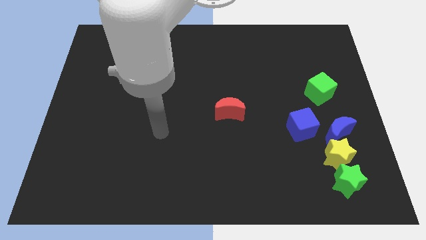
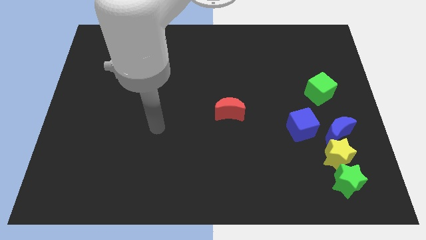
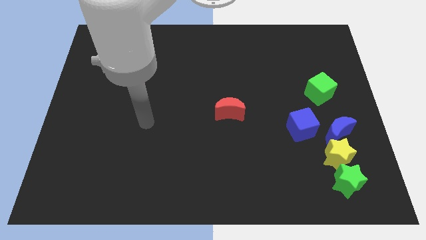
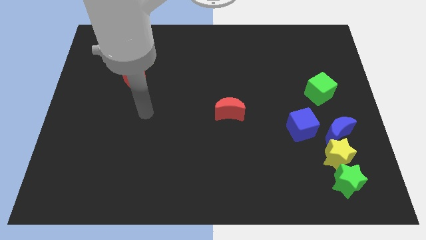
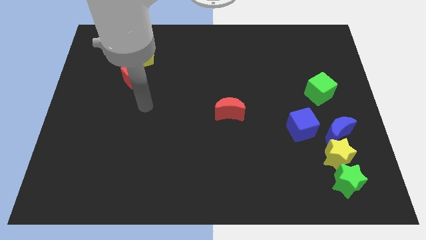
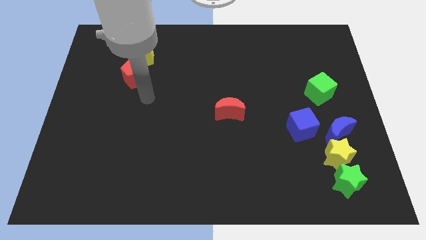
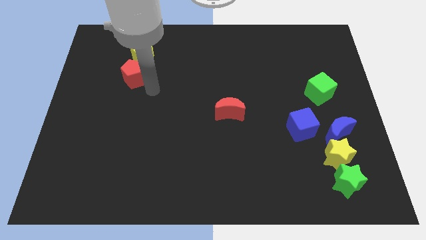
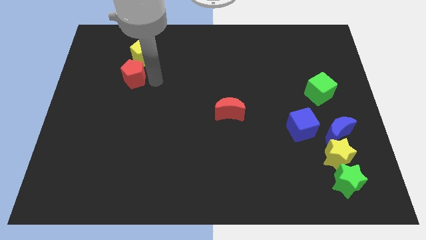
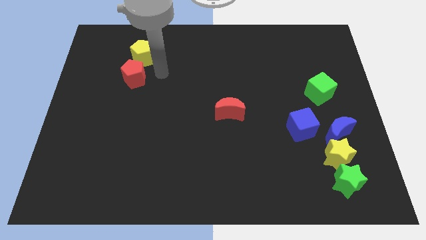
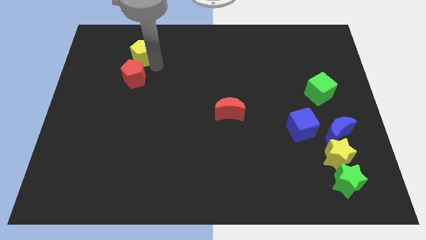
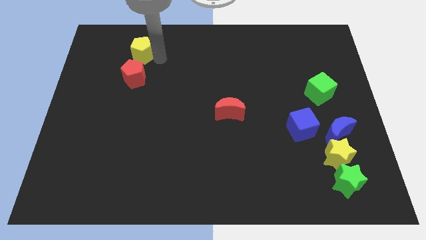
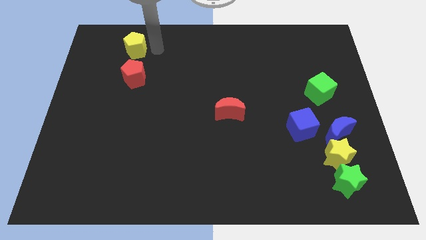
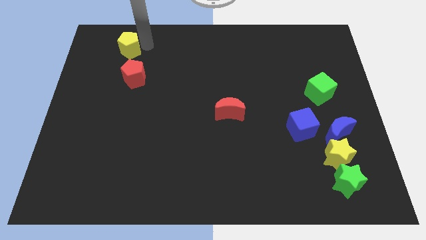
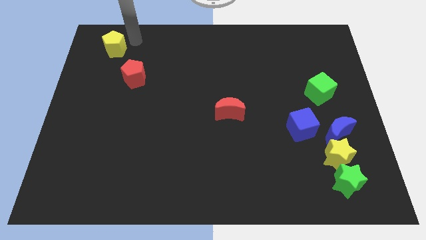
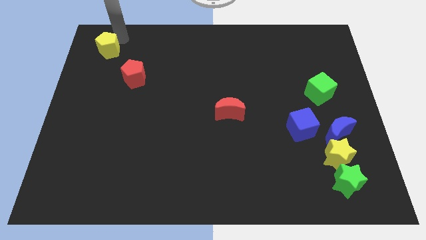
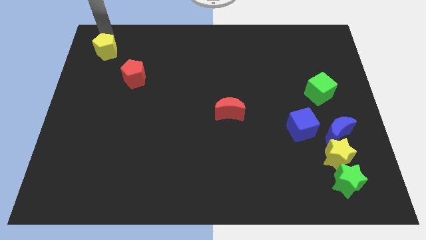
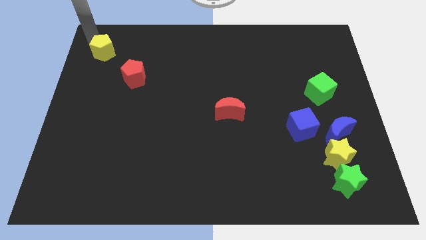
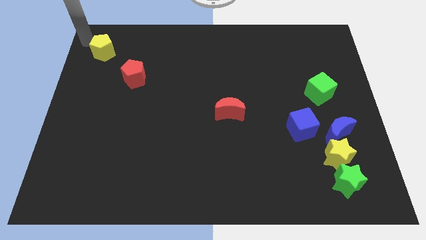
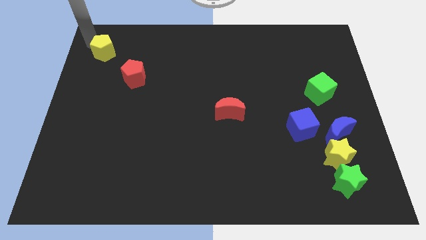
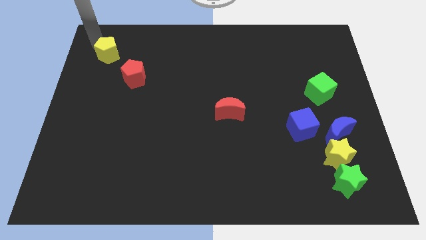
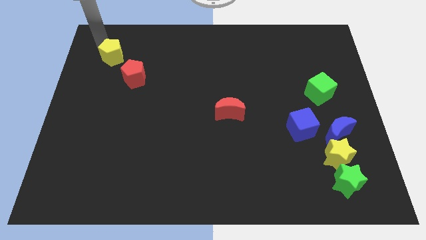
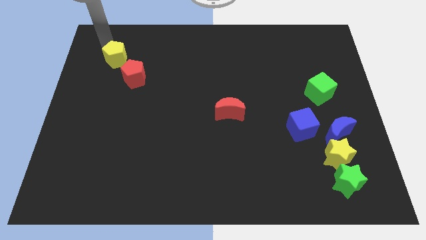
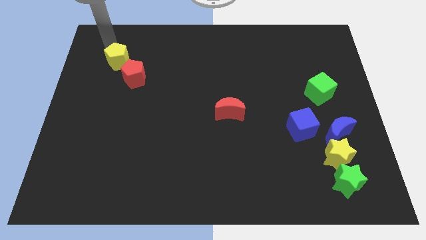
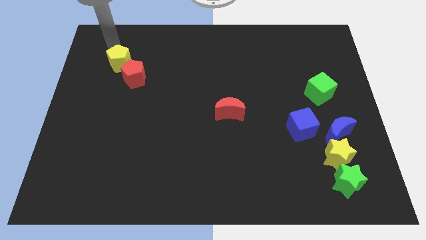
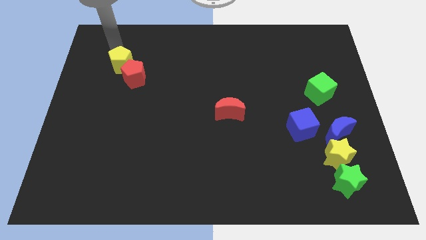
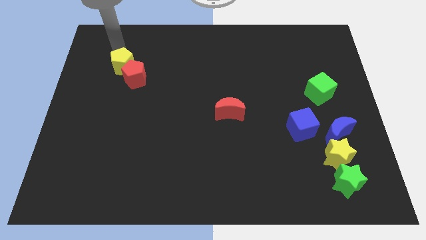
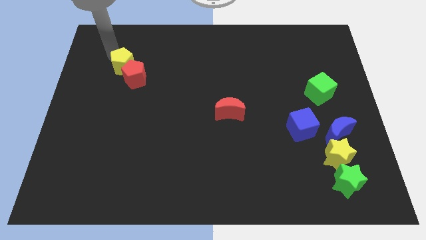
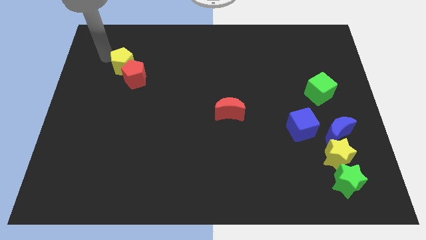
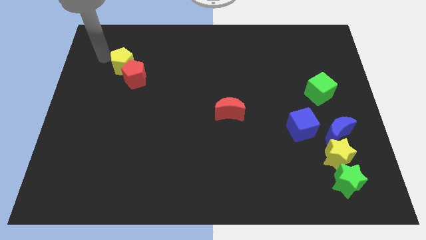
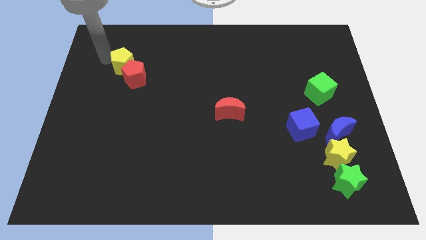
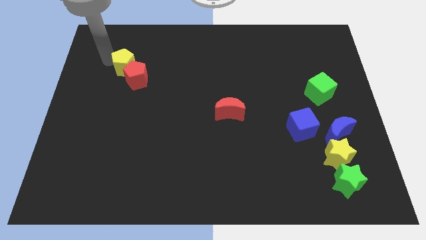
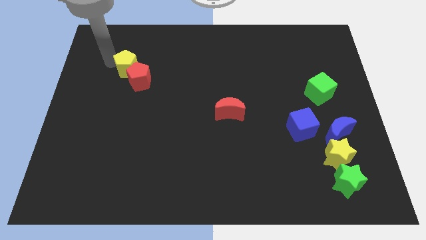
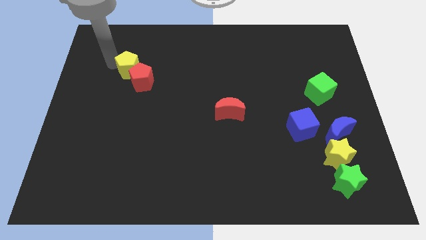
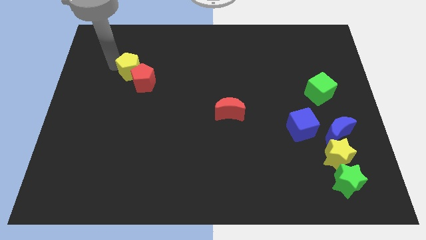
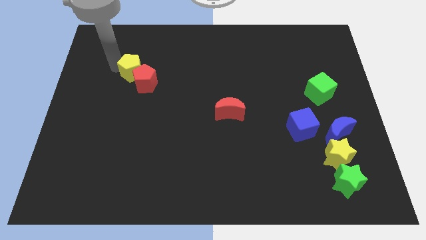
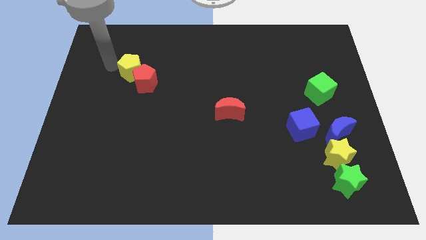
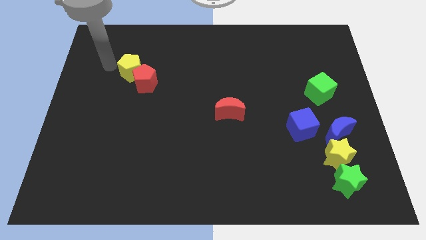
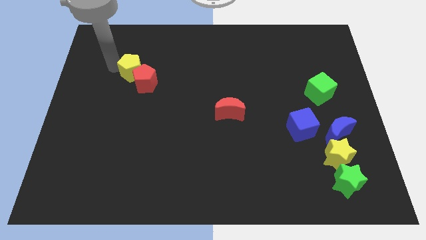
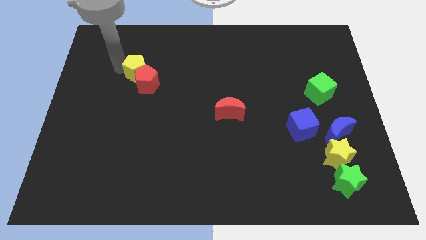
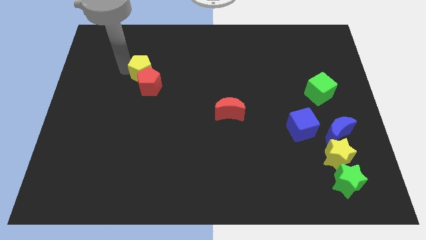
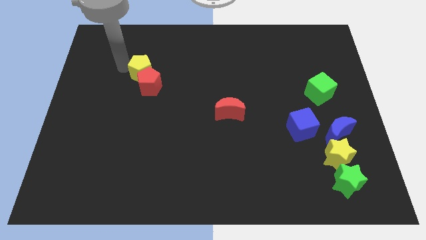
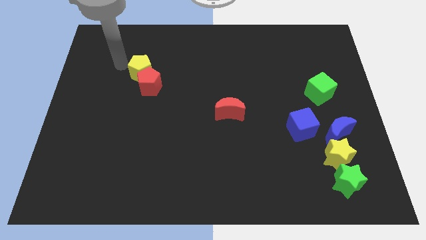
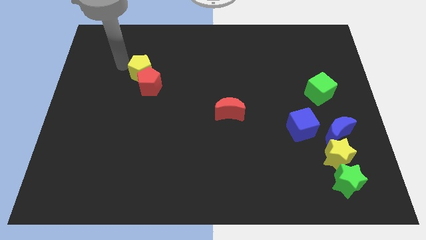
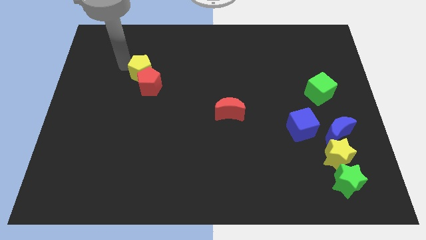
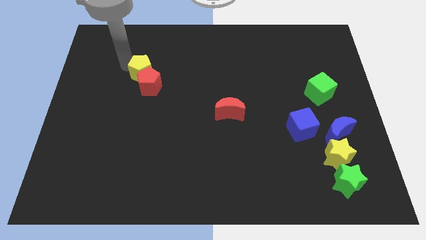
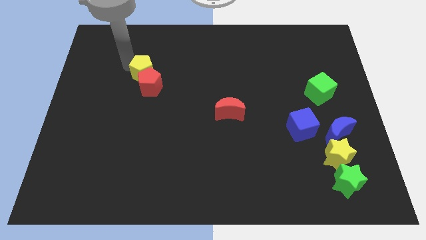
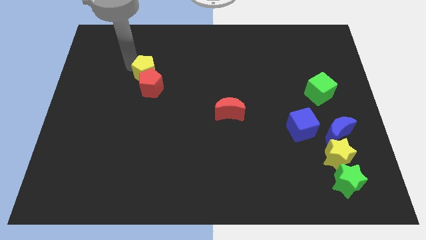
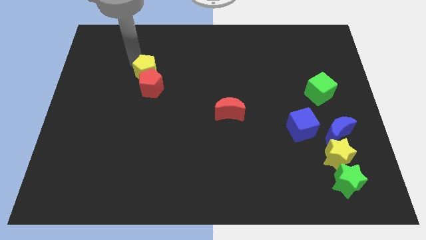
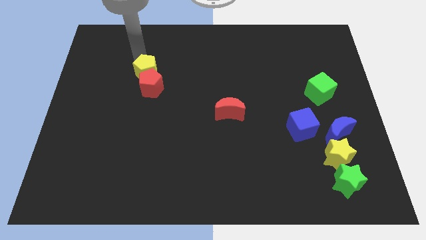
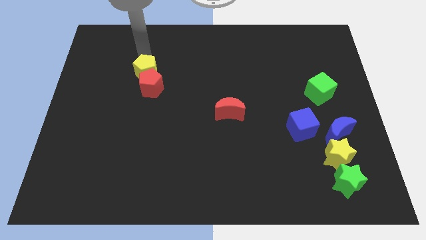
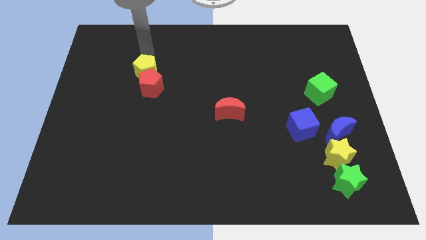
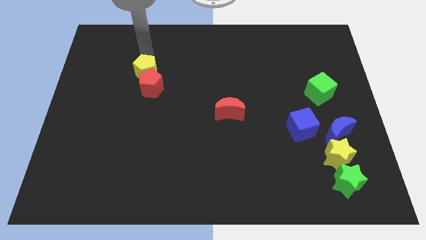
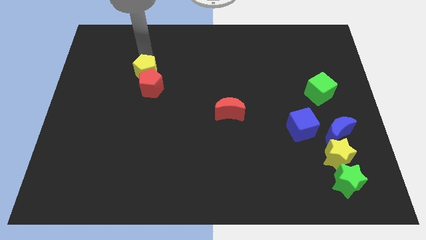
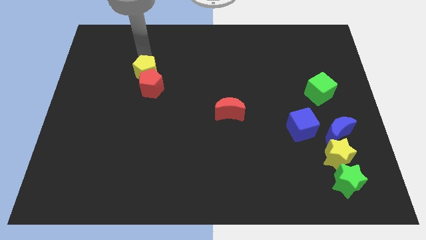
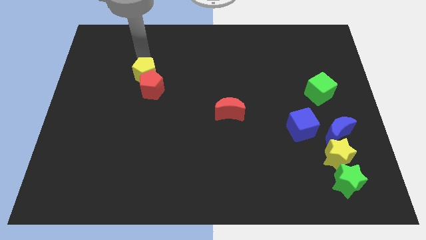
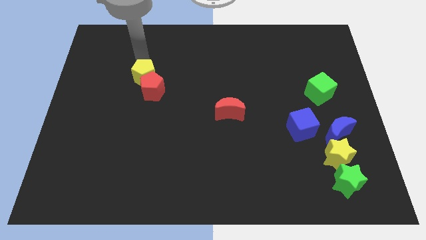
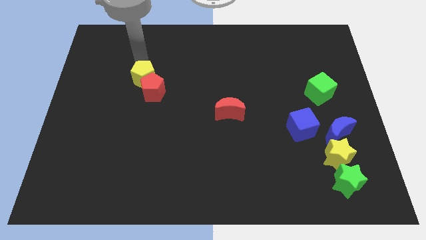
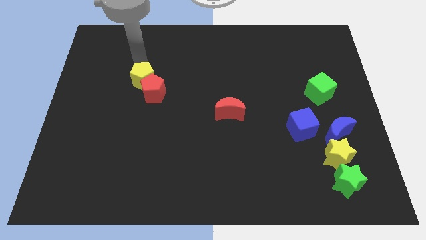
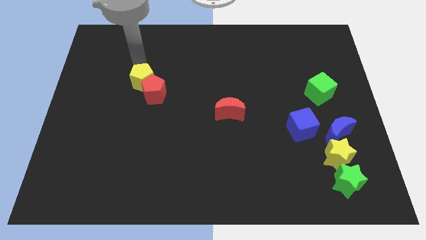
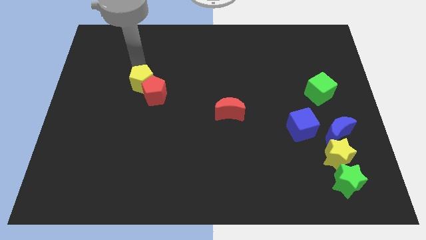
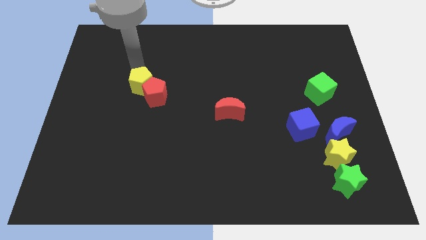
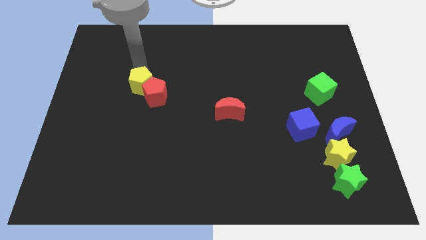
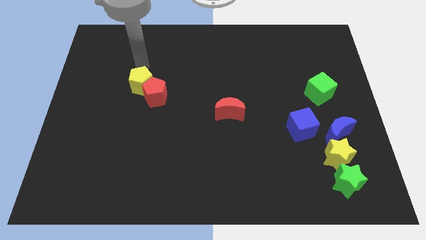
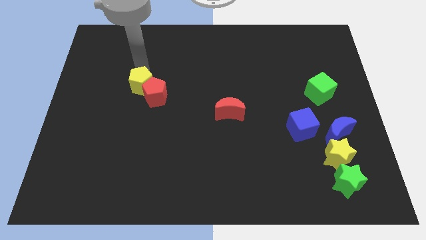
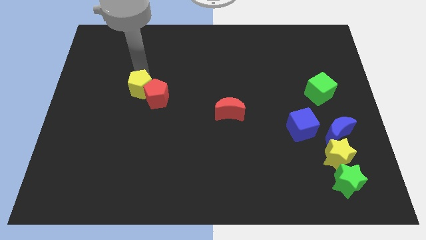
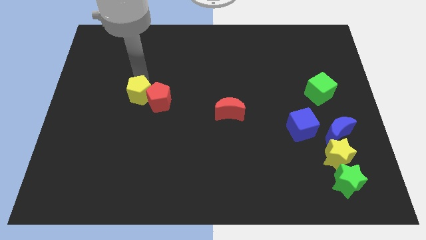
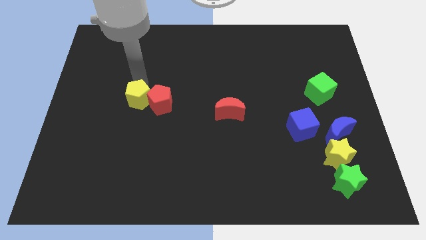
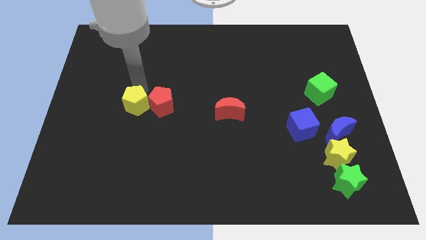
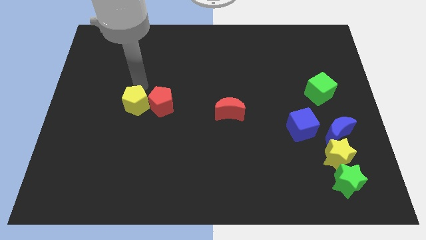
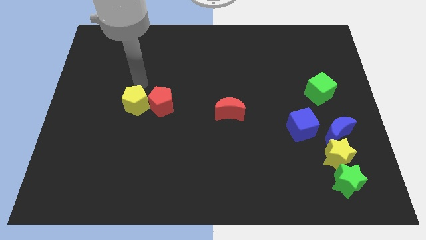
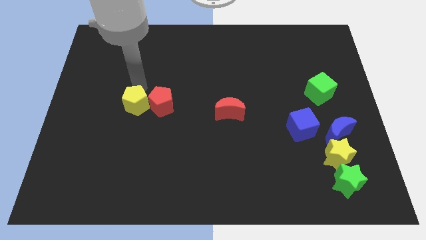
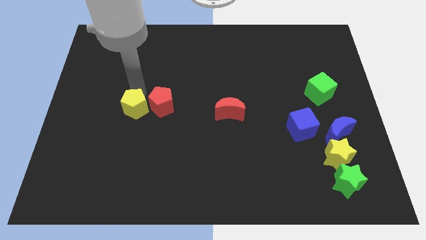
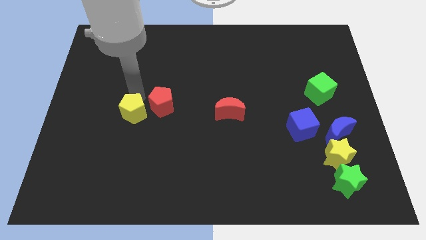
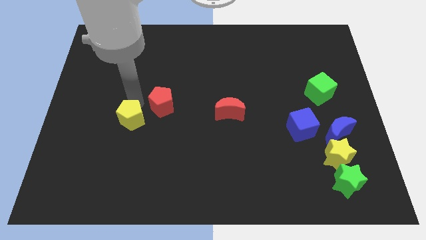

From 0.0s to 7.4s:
slide the yellow pentagon downwards

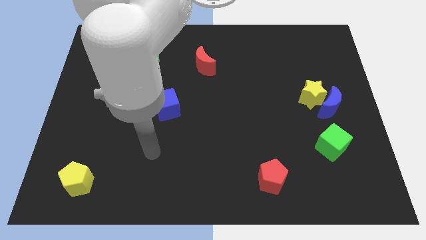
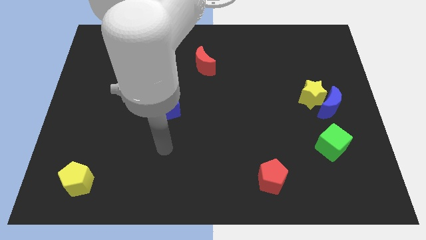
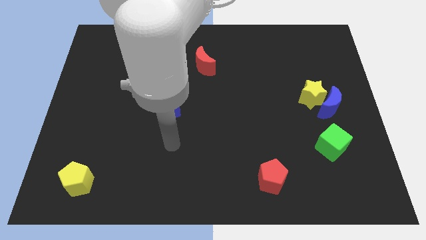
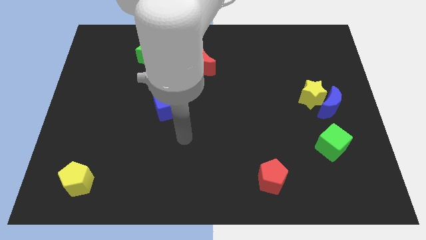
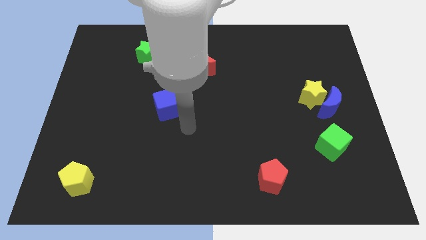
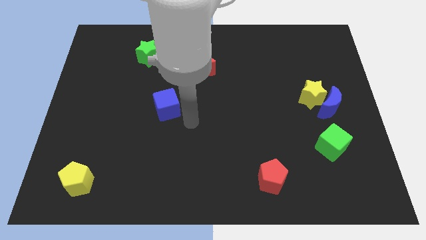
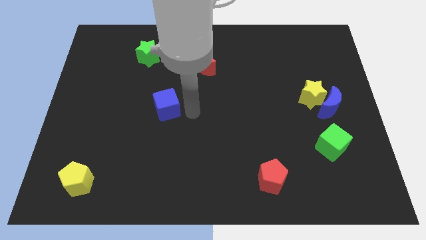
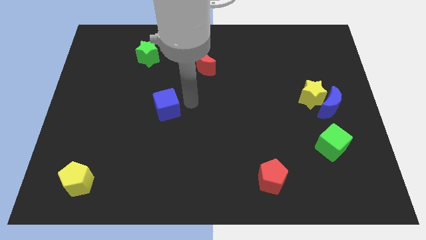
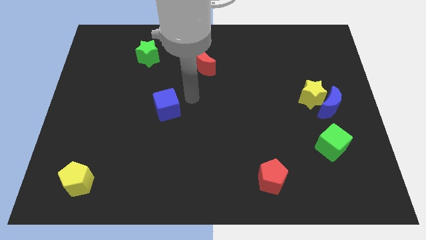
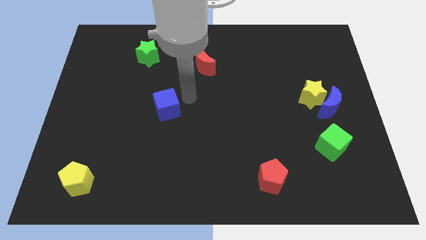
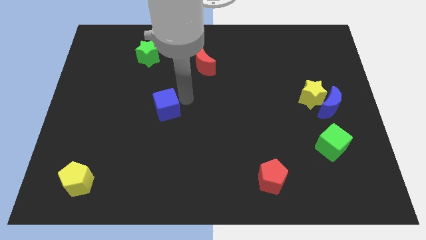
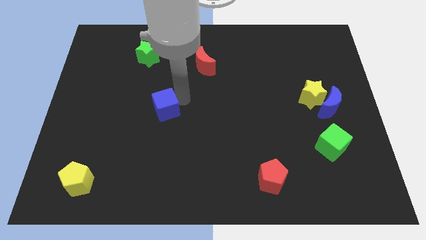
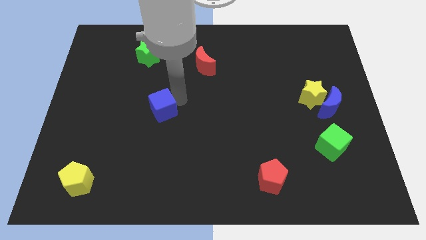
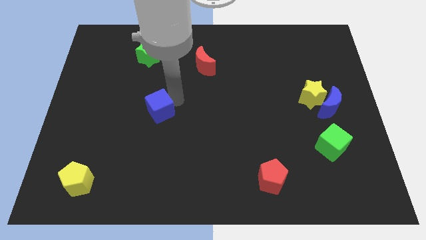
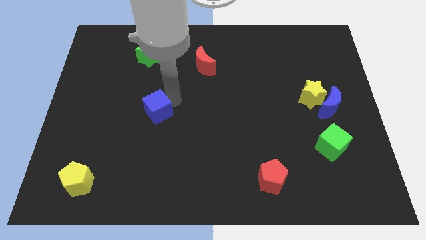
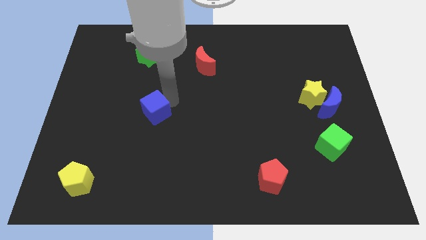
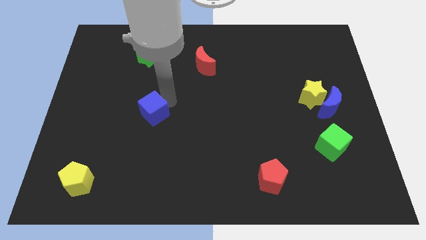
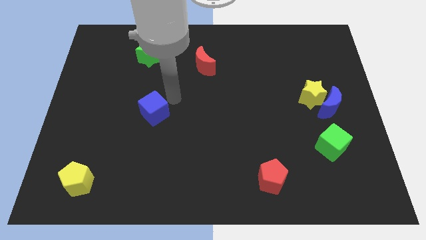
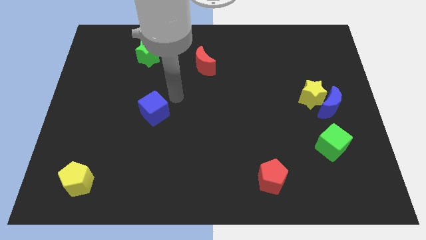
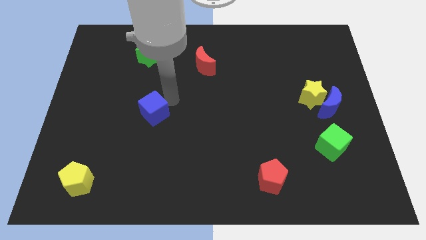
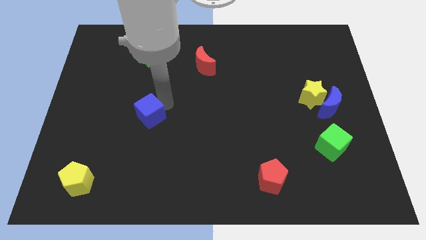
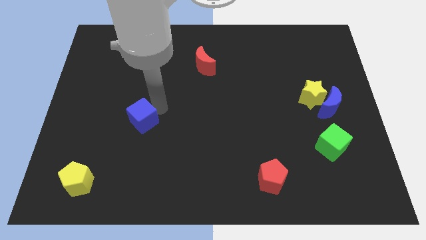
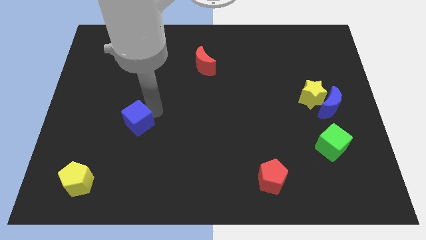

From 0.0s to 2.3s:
push the blue cube a little diagonally downwards and left
